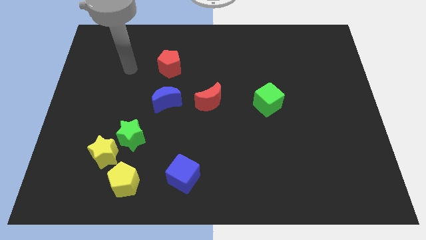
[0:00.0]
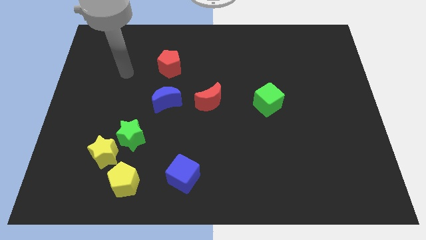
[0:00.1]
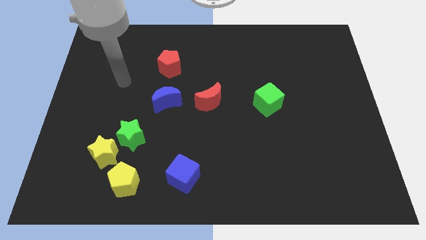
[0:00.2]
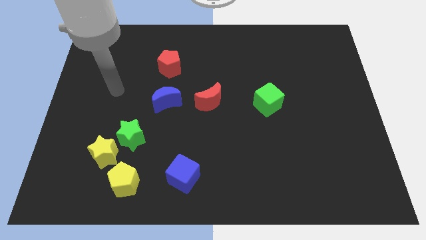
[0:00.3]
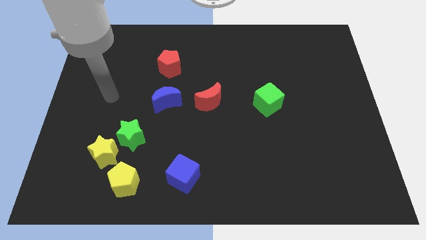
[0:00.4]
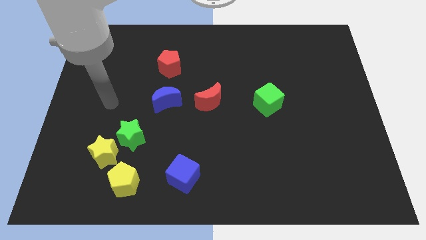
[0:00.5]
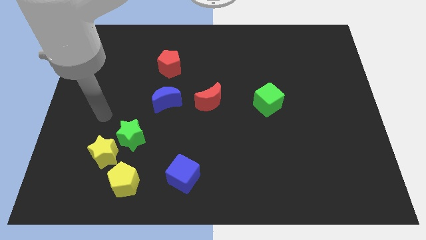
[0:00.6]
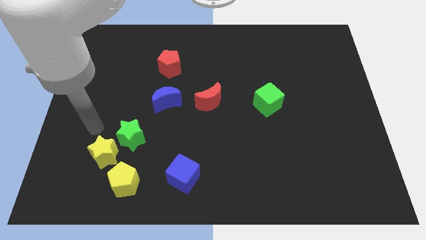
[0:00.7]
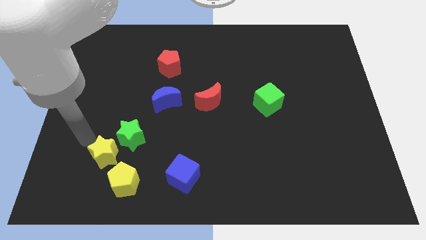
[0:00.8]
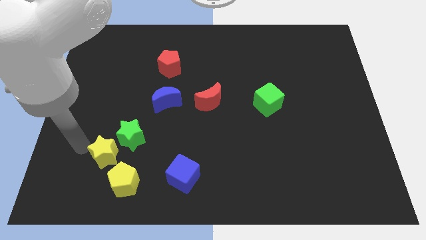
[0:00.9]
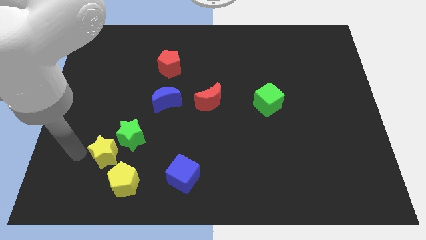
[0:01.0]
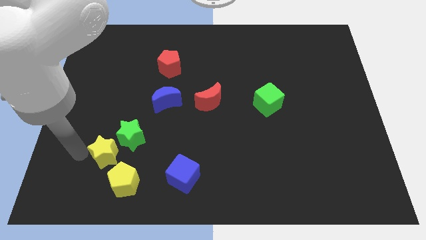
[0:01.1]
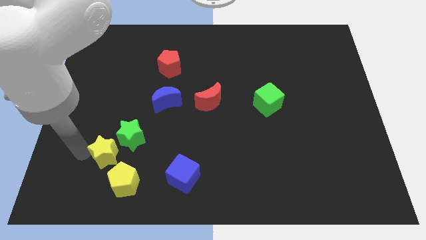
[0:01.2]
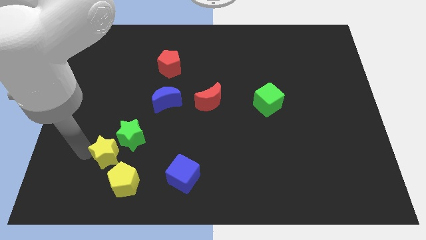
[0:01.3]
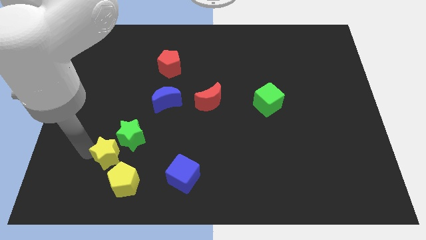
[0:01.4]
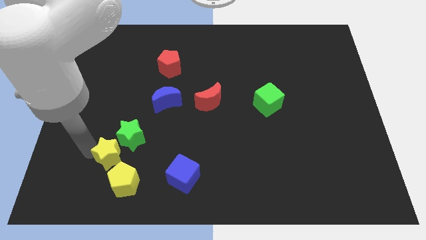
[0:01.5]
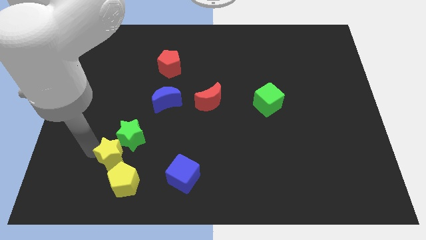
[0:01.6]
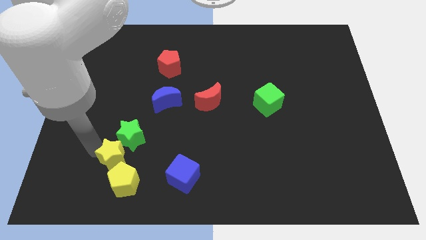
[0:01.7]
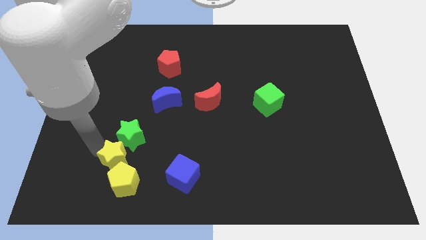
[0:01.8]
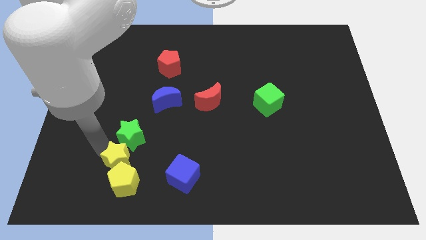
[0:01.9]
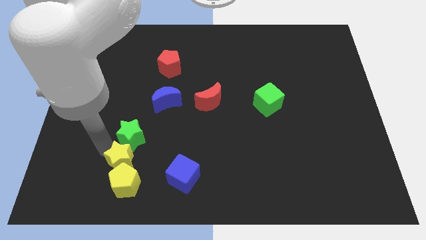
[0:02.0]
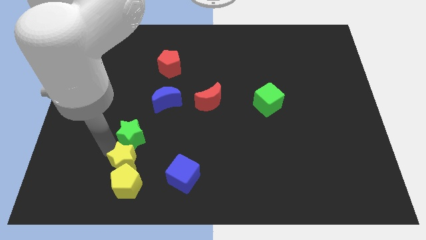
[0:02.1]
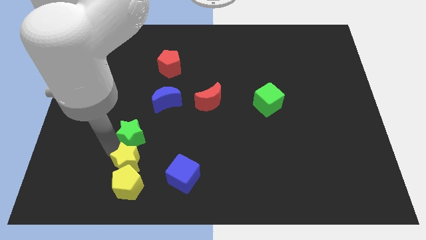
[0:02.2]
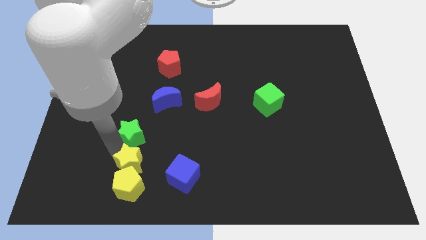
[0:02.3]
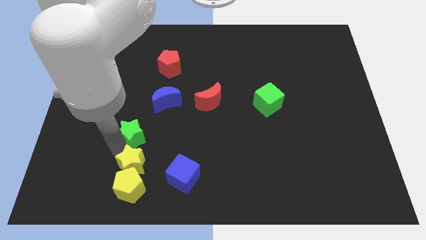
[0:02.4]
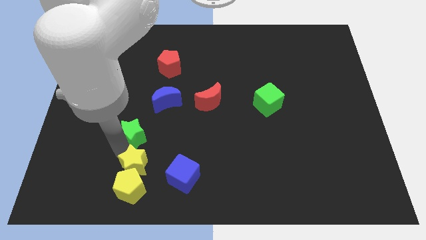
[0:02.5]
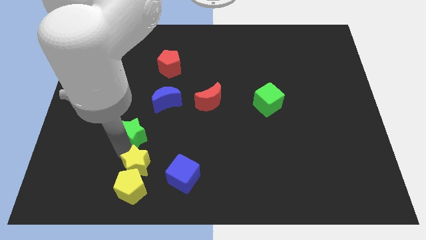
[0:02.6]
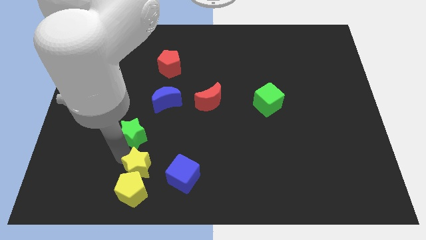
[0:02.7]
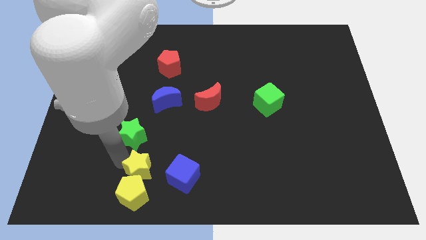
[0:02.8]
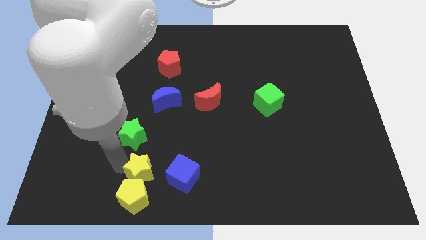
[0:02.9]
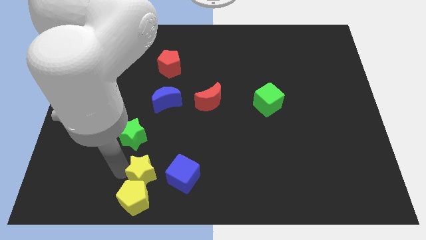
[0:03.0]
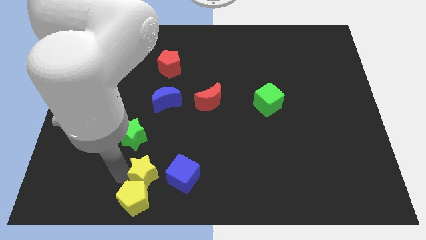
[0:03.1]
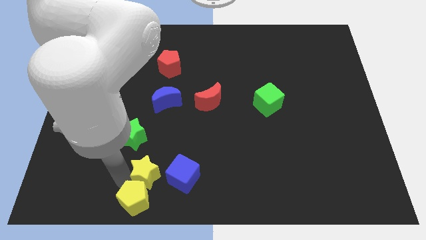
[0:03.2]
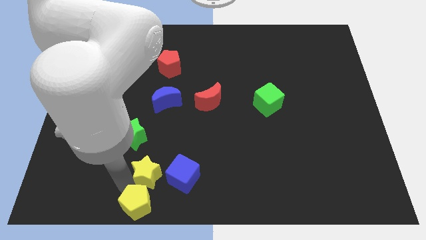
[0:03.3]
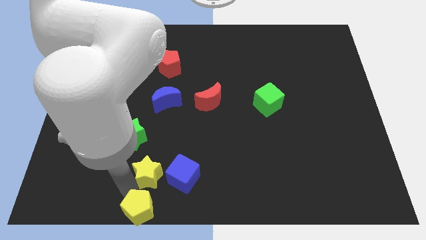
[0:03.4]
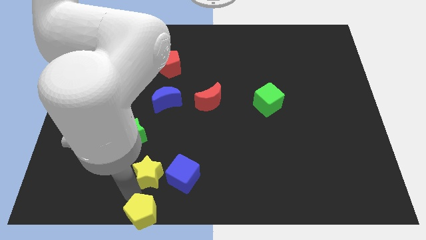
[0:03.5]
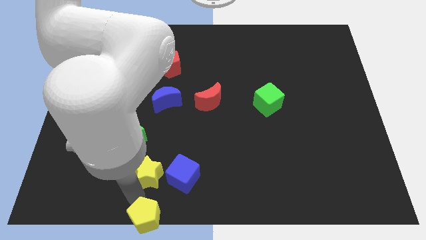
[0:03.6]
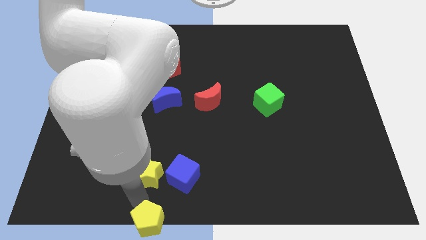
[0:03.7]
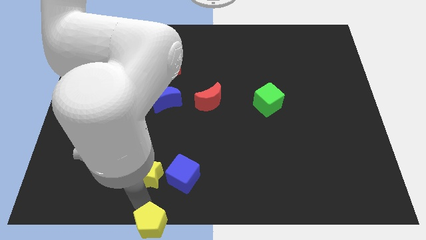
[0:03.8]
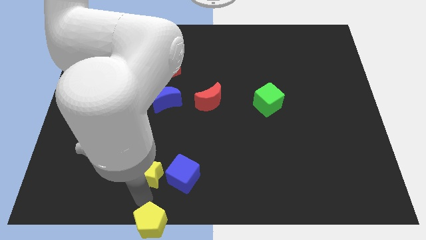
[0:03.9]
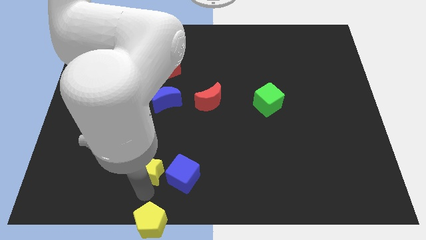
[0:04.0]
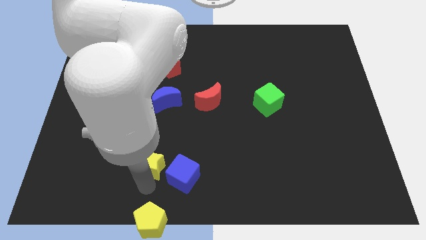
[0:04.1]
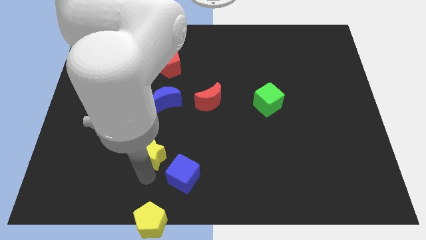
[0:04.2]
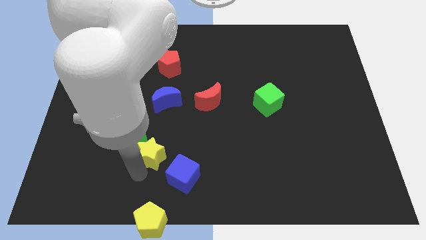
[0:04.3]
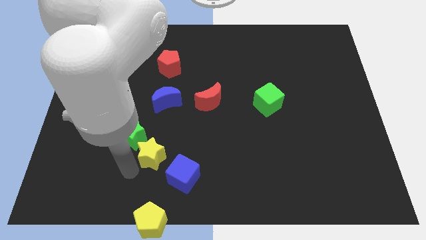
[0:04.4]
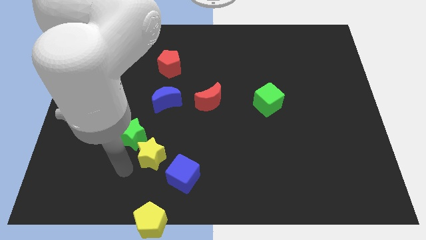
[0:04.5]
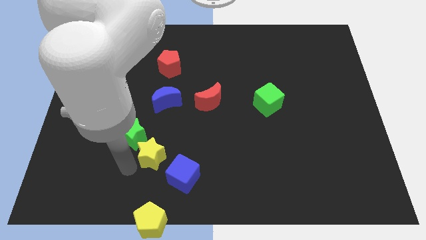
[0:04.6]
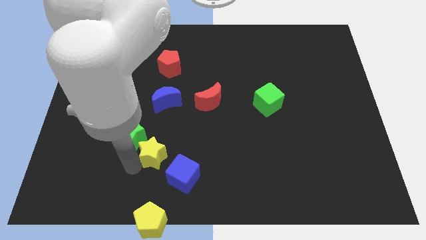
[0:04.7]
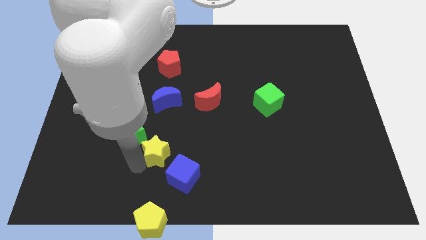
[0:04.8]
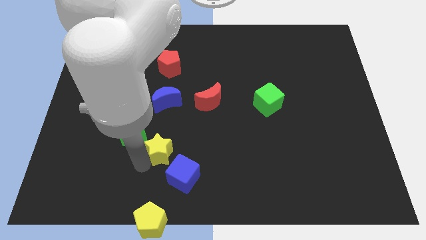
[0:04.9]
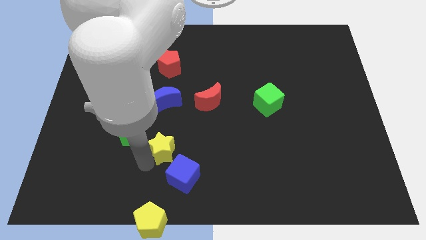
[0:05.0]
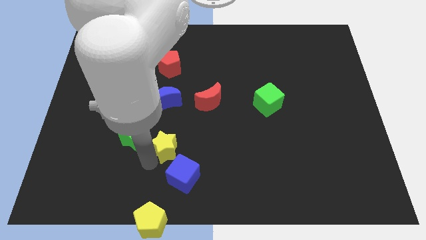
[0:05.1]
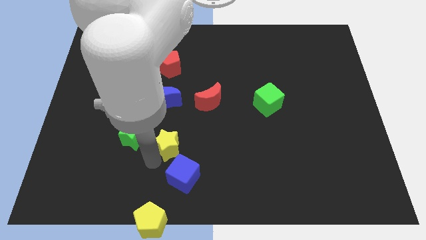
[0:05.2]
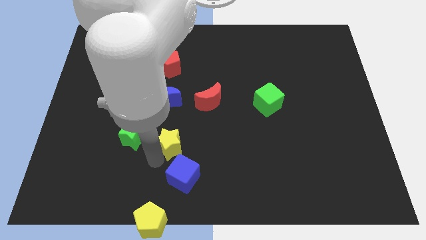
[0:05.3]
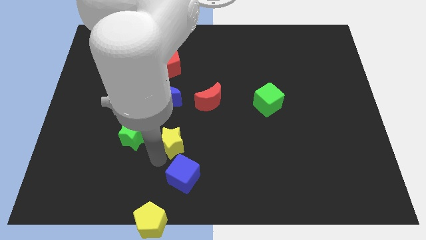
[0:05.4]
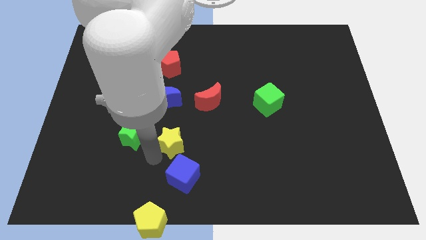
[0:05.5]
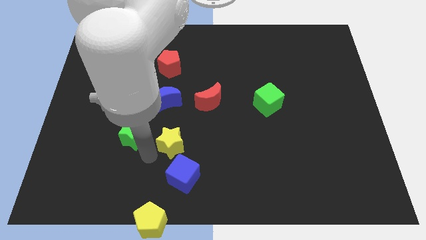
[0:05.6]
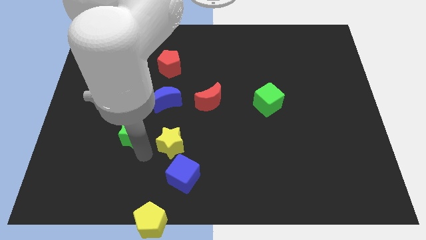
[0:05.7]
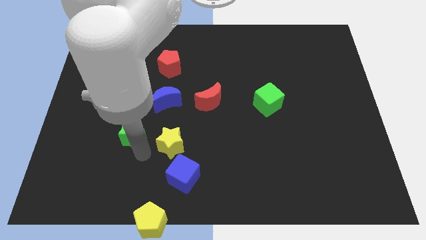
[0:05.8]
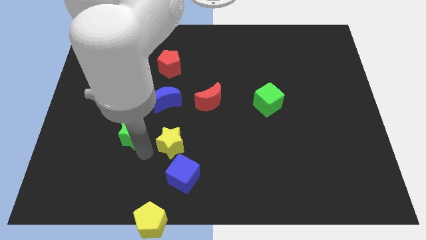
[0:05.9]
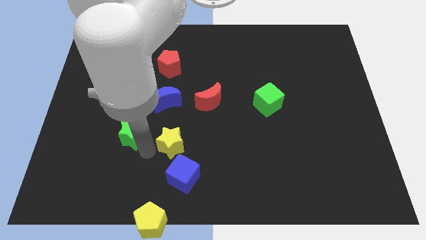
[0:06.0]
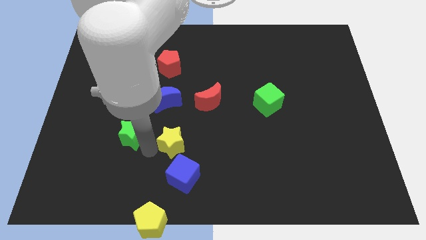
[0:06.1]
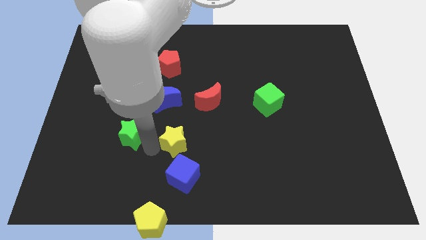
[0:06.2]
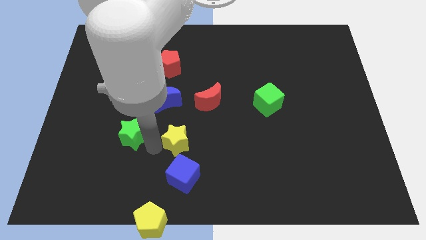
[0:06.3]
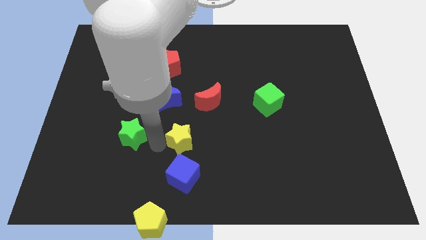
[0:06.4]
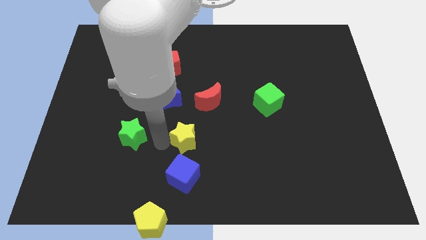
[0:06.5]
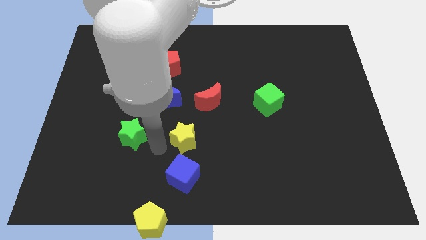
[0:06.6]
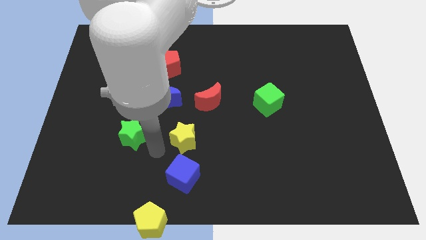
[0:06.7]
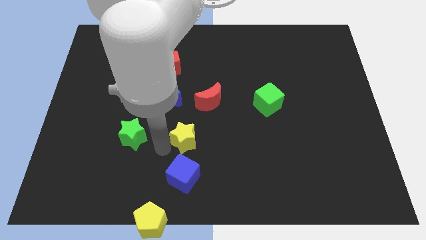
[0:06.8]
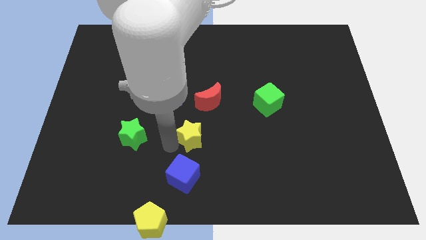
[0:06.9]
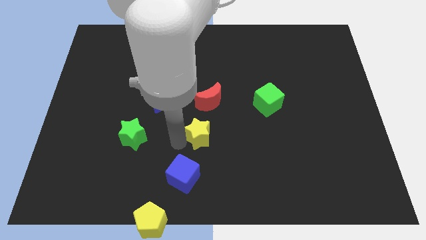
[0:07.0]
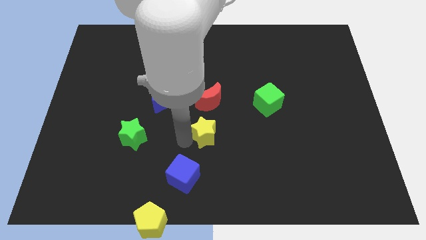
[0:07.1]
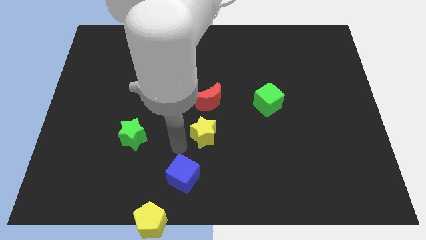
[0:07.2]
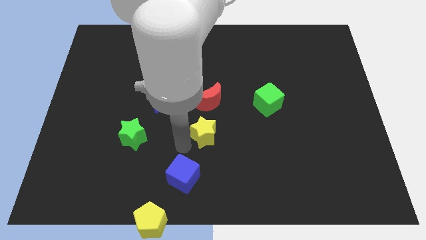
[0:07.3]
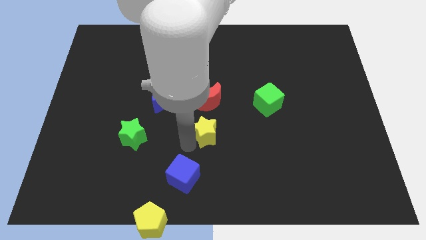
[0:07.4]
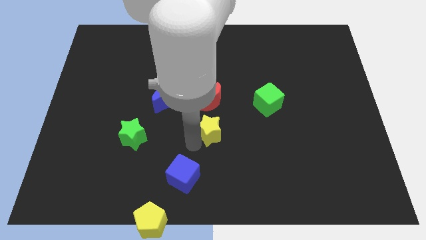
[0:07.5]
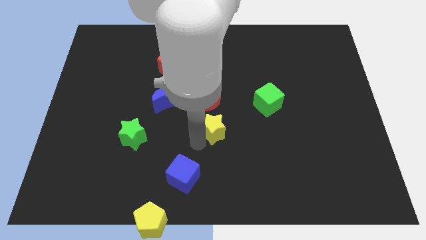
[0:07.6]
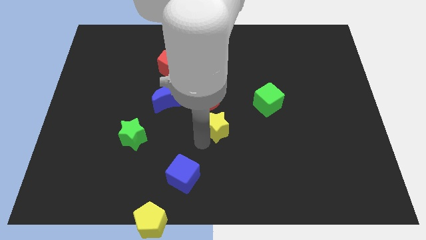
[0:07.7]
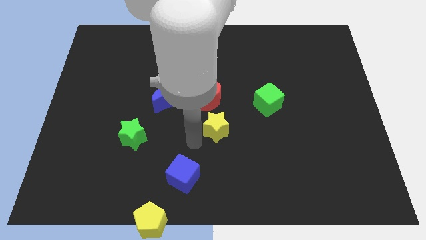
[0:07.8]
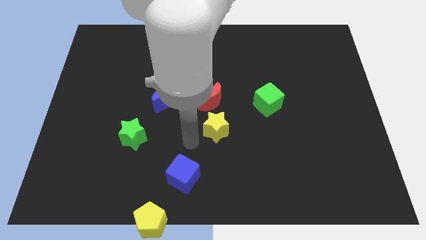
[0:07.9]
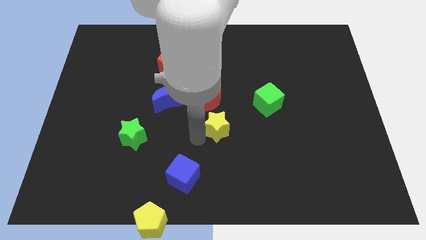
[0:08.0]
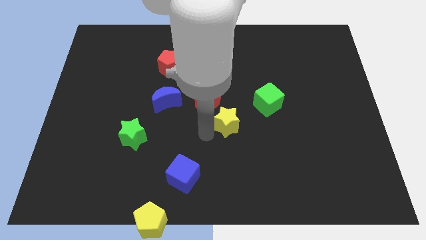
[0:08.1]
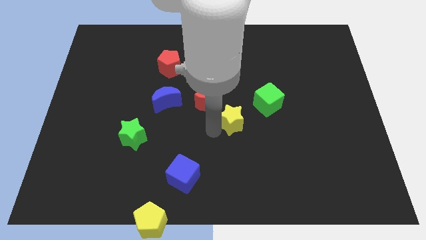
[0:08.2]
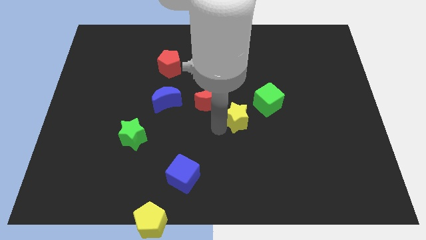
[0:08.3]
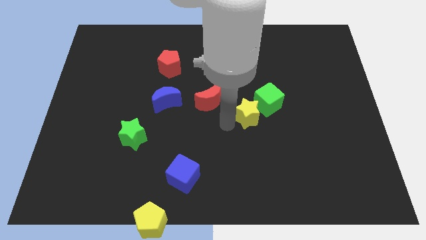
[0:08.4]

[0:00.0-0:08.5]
push the yellow star close to the green cube
